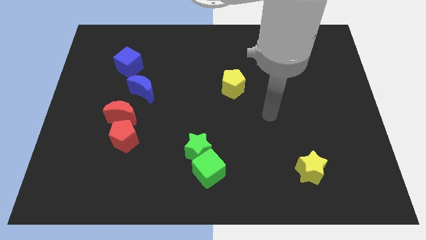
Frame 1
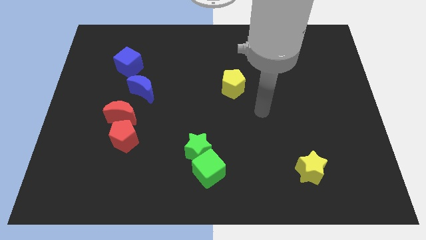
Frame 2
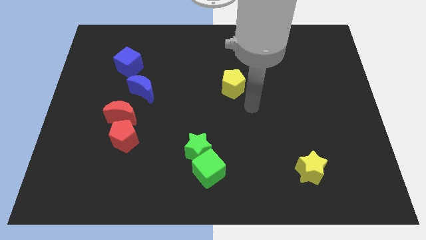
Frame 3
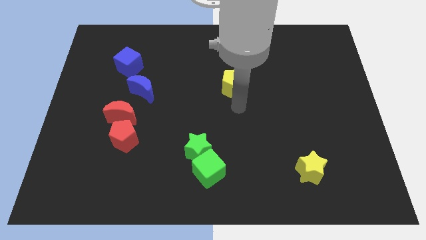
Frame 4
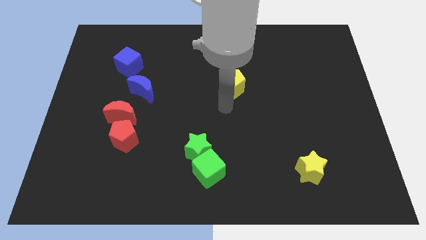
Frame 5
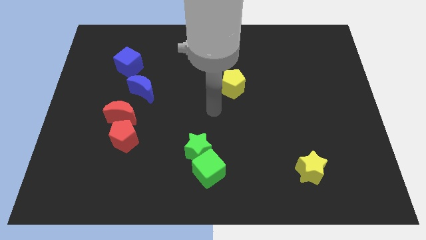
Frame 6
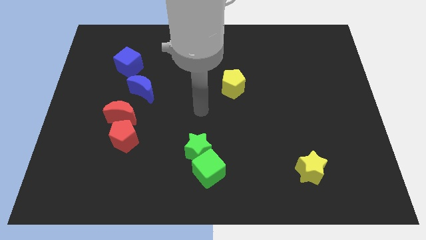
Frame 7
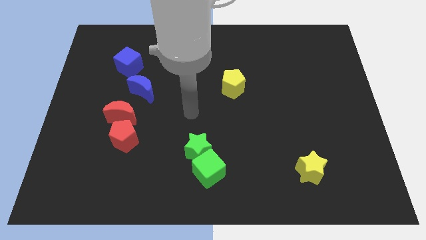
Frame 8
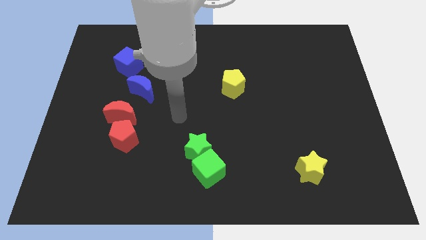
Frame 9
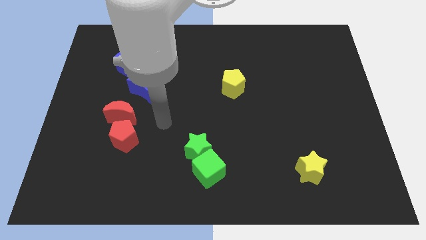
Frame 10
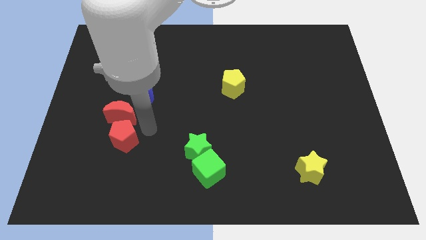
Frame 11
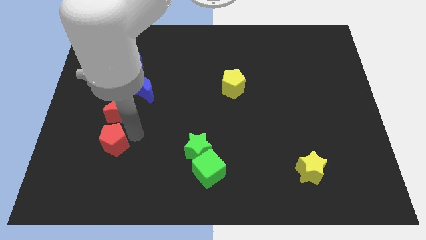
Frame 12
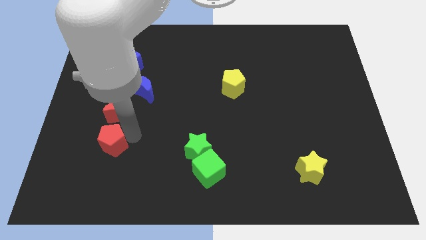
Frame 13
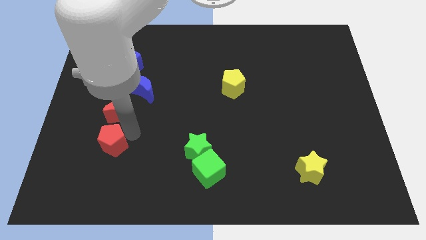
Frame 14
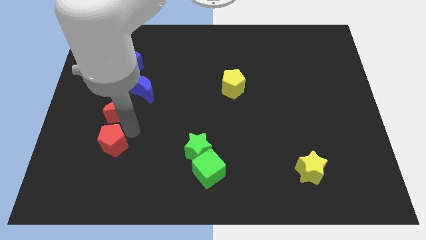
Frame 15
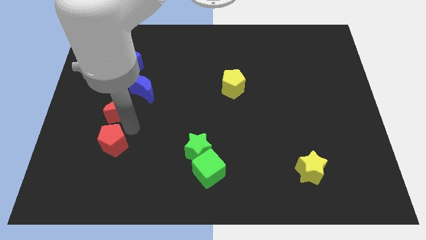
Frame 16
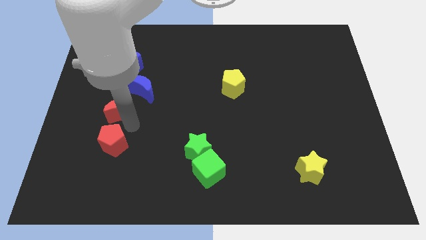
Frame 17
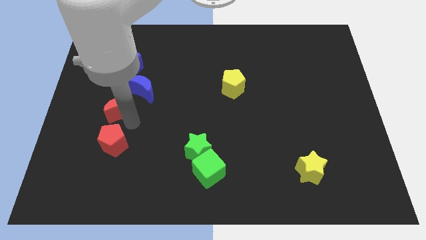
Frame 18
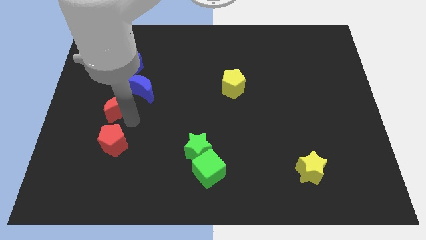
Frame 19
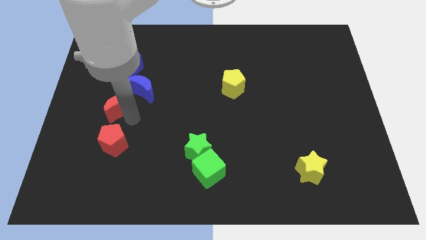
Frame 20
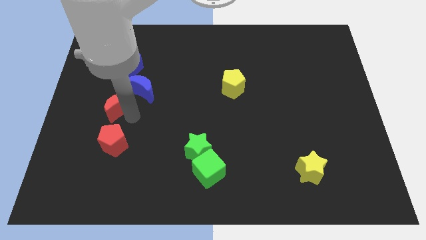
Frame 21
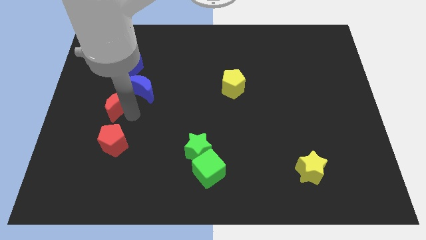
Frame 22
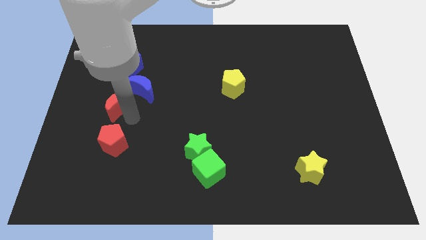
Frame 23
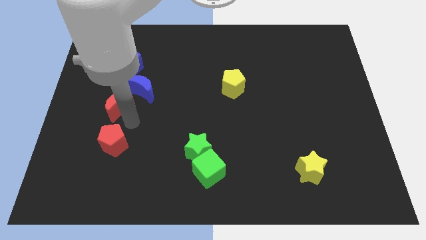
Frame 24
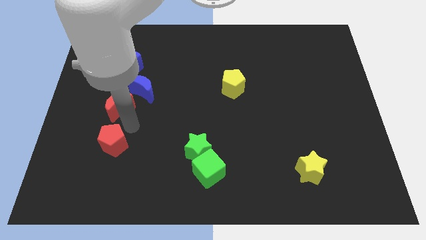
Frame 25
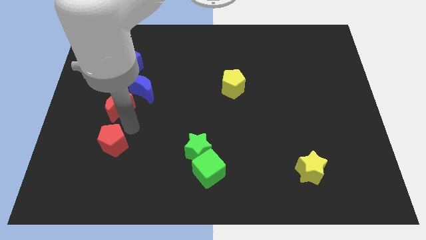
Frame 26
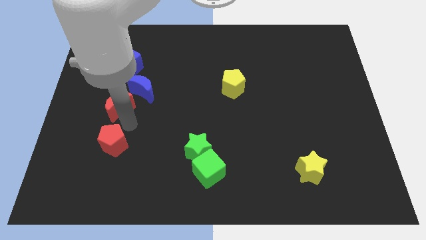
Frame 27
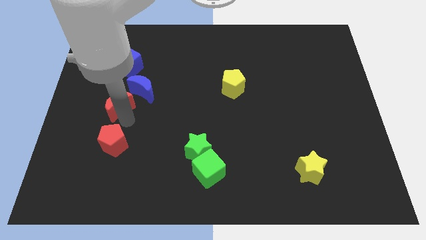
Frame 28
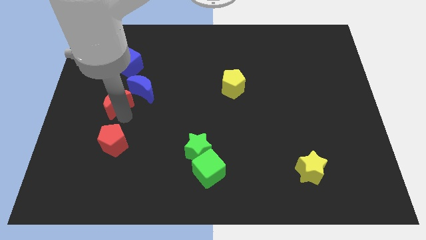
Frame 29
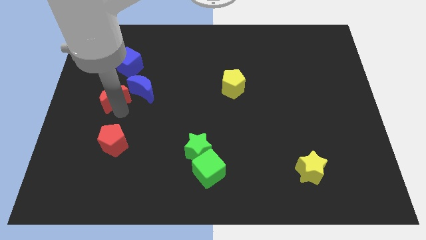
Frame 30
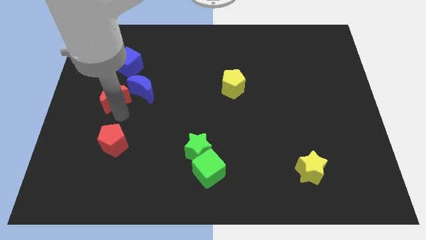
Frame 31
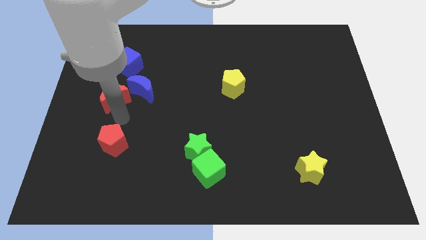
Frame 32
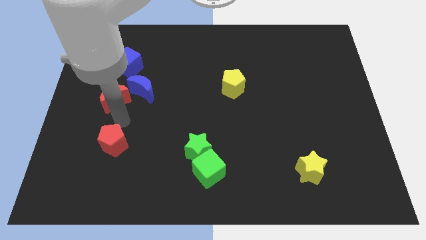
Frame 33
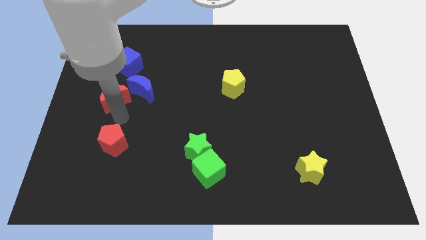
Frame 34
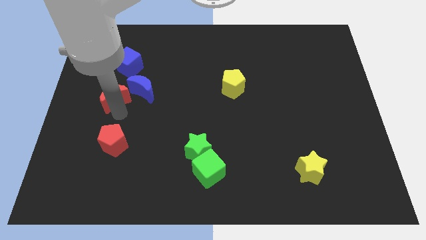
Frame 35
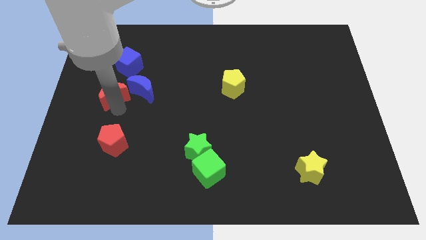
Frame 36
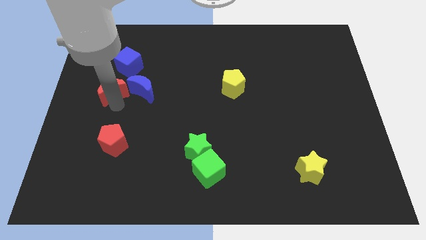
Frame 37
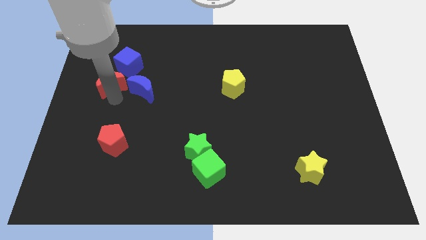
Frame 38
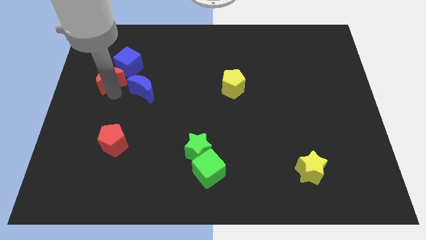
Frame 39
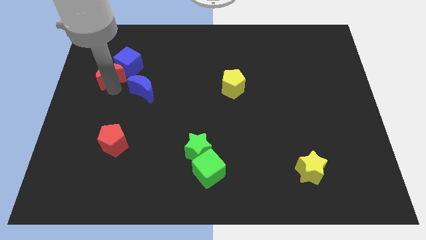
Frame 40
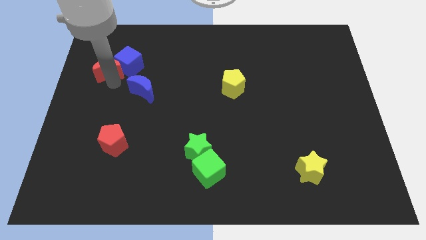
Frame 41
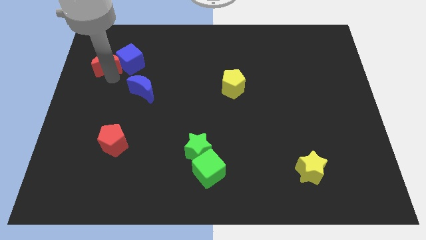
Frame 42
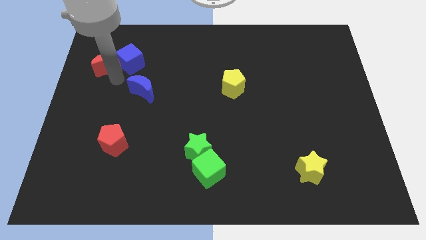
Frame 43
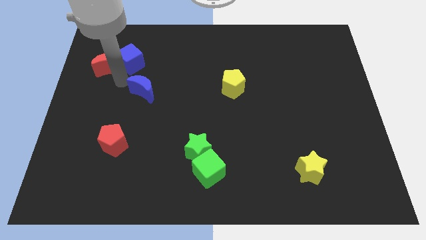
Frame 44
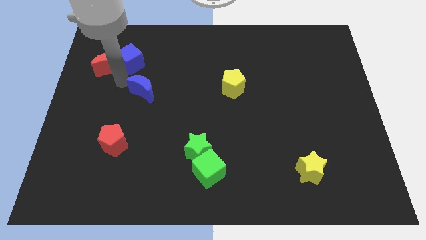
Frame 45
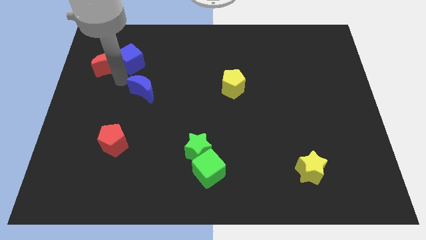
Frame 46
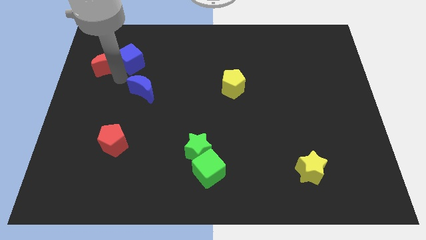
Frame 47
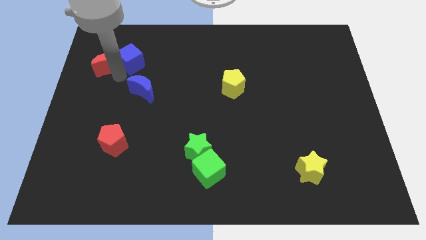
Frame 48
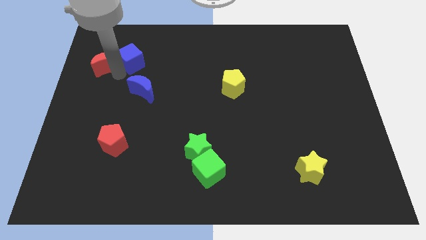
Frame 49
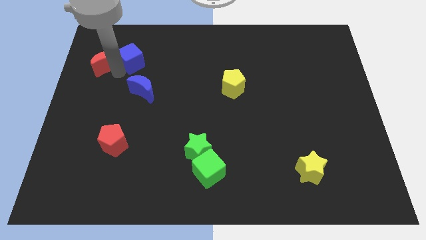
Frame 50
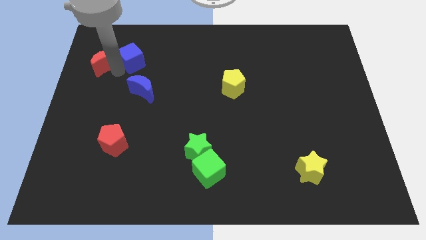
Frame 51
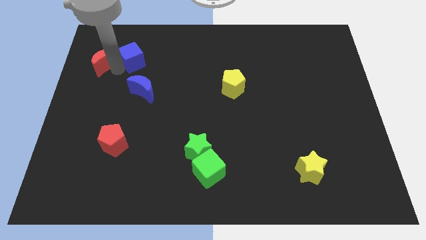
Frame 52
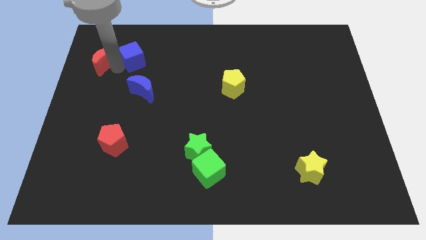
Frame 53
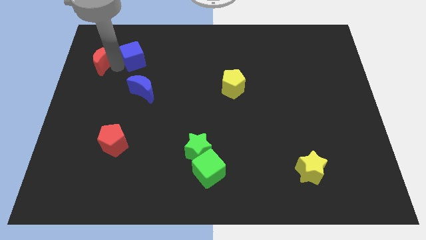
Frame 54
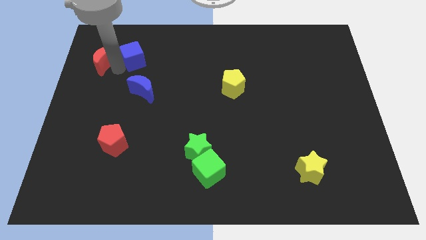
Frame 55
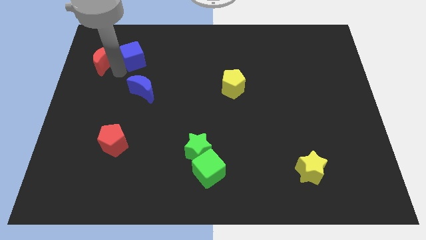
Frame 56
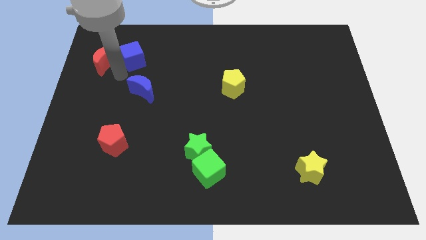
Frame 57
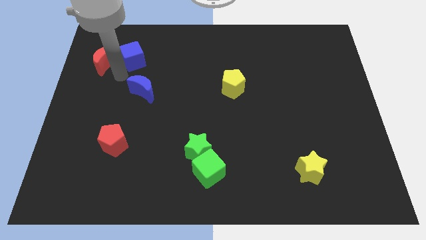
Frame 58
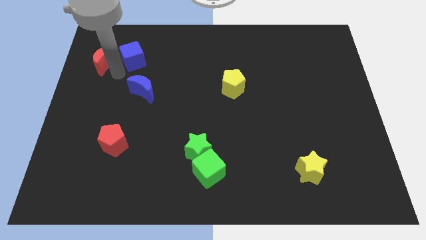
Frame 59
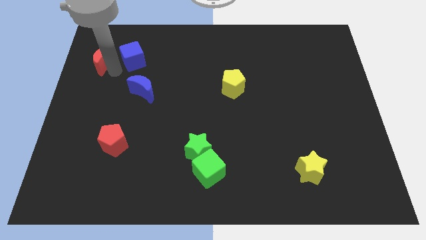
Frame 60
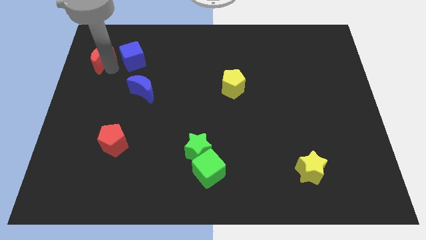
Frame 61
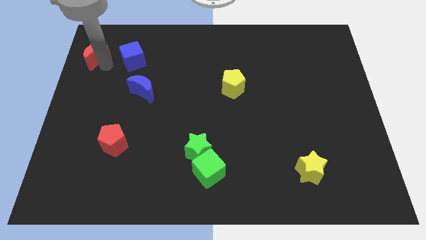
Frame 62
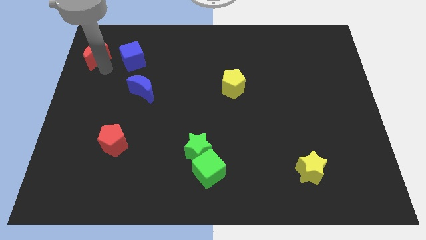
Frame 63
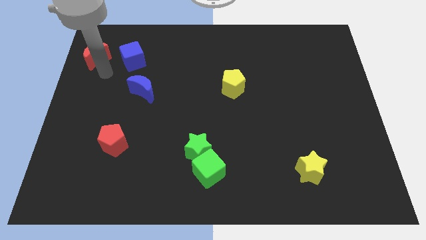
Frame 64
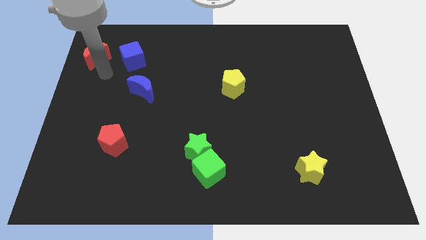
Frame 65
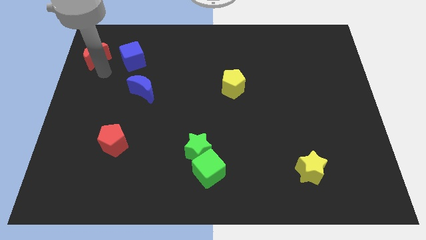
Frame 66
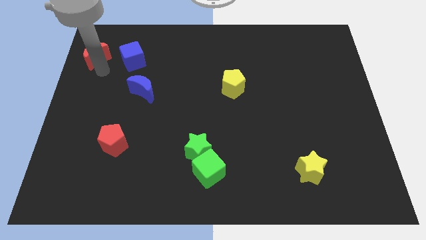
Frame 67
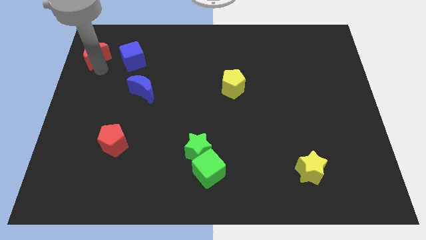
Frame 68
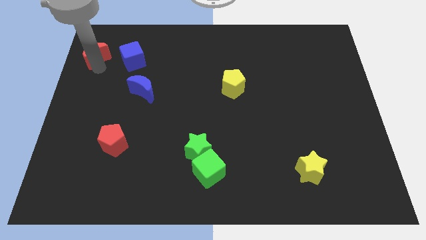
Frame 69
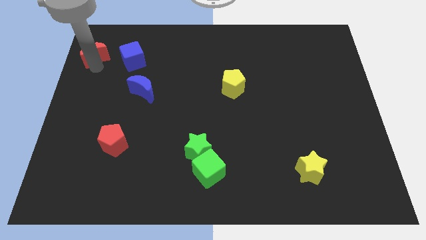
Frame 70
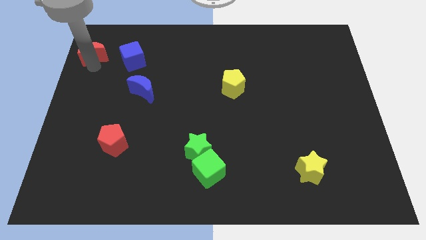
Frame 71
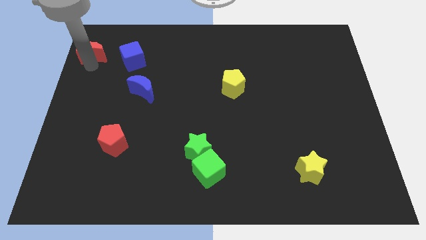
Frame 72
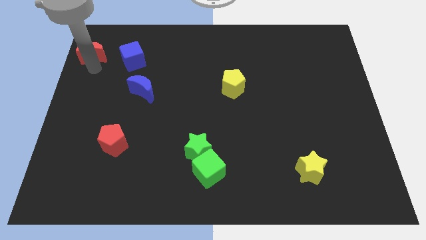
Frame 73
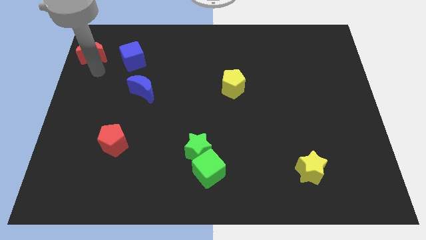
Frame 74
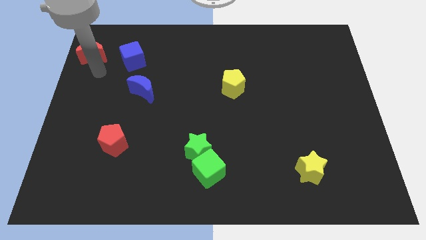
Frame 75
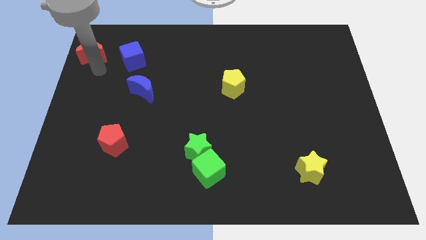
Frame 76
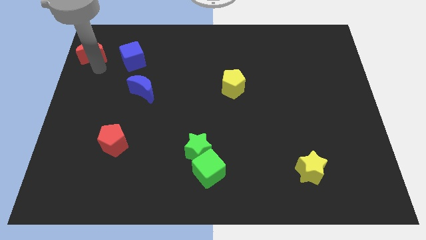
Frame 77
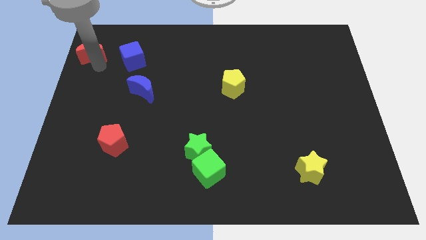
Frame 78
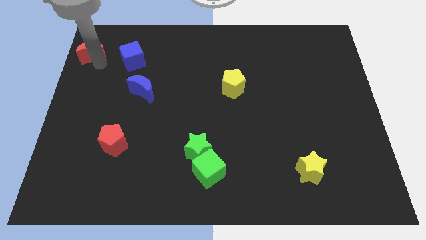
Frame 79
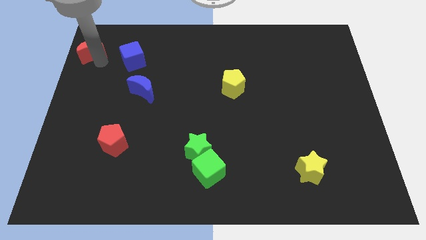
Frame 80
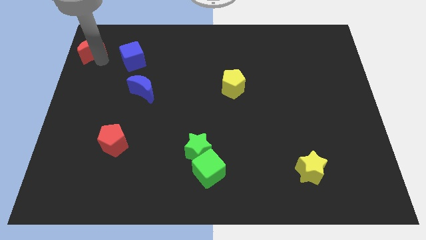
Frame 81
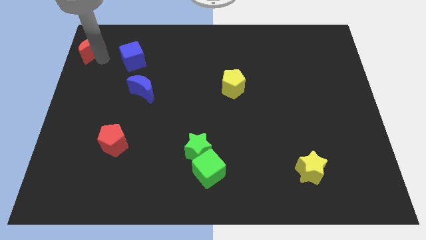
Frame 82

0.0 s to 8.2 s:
push the red moon to the top left
